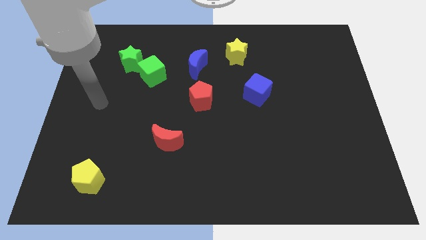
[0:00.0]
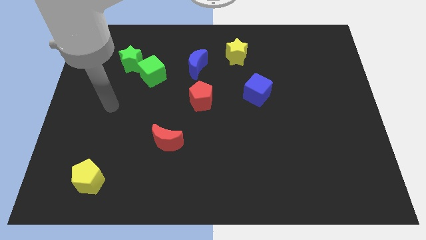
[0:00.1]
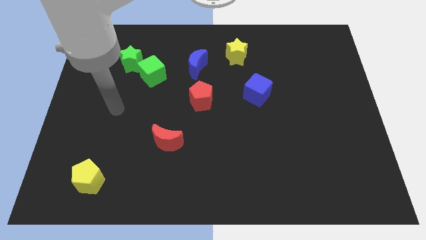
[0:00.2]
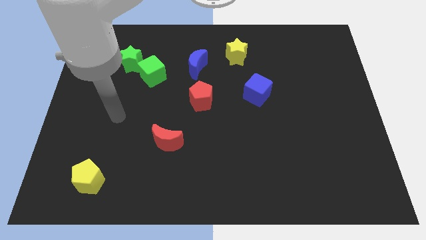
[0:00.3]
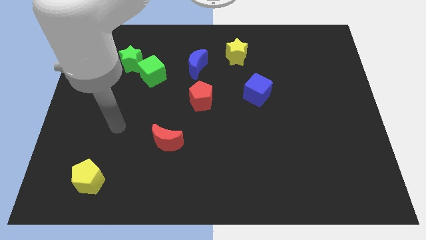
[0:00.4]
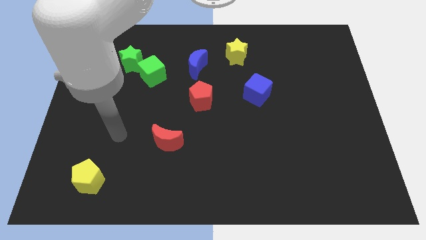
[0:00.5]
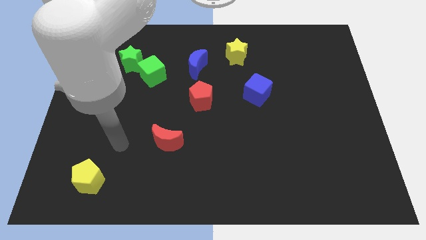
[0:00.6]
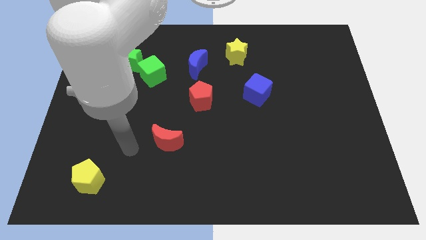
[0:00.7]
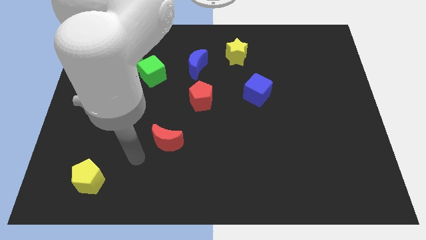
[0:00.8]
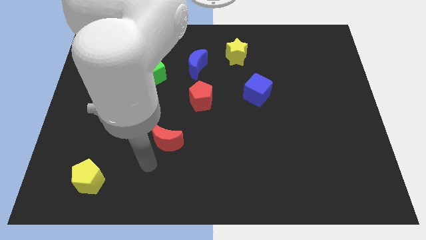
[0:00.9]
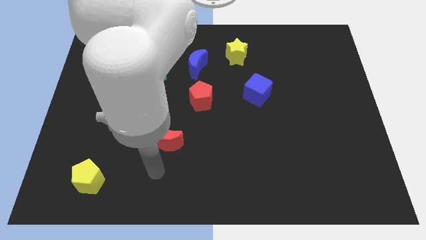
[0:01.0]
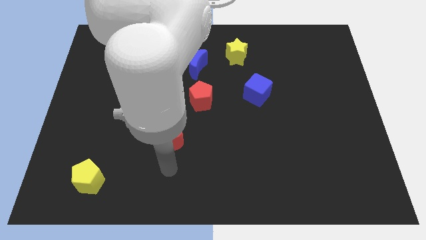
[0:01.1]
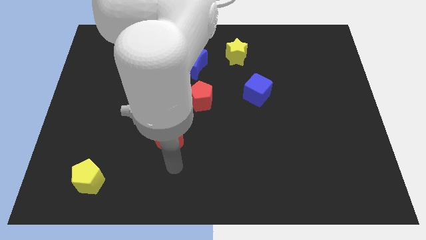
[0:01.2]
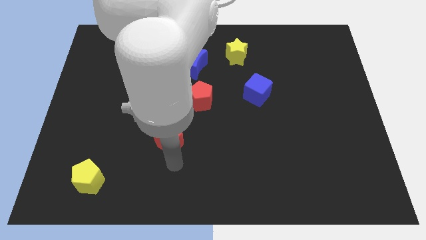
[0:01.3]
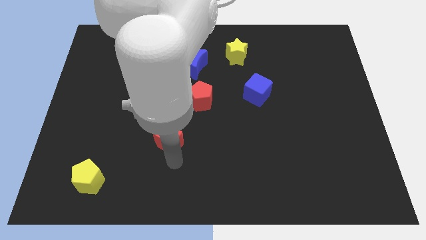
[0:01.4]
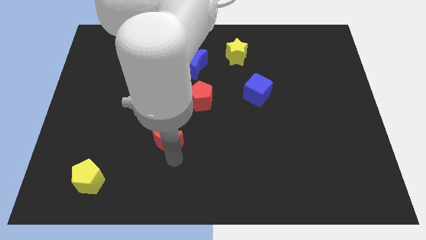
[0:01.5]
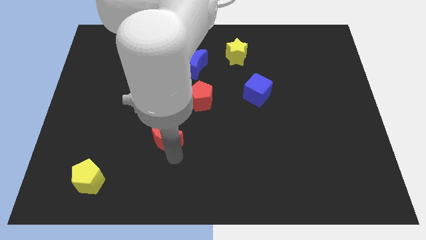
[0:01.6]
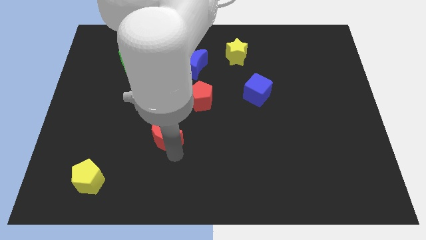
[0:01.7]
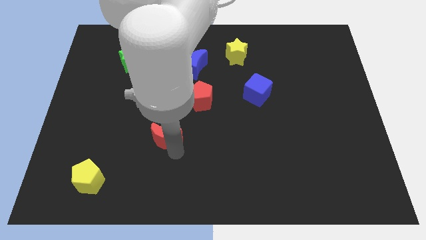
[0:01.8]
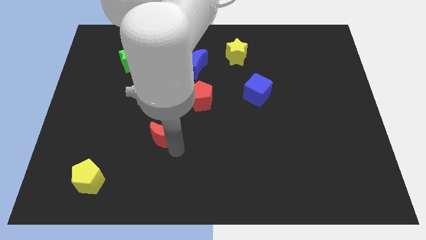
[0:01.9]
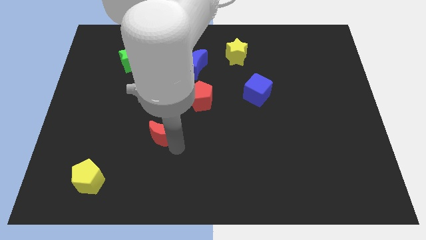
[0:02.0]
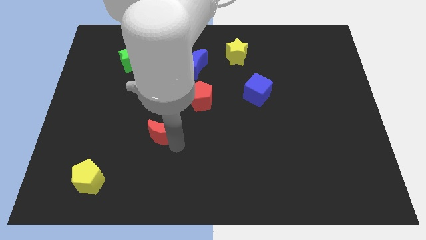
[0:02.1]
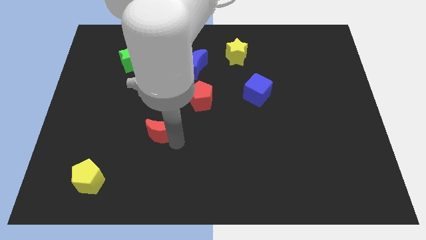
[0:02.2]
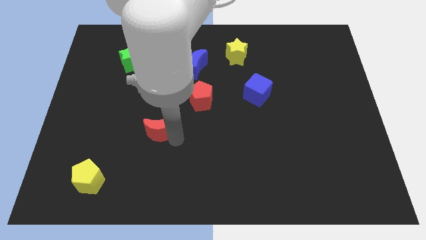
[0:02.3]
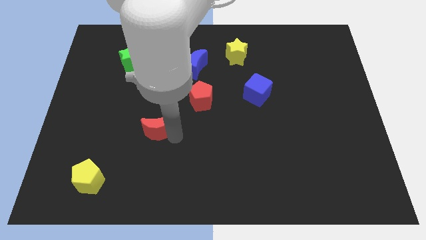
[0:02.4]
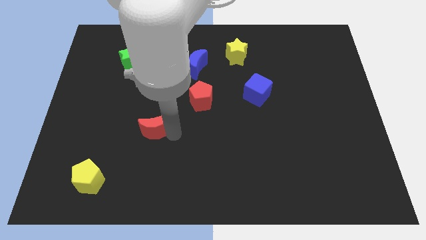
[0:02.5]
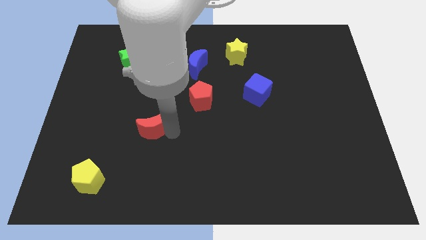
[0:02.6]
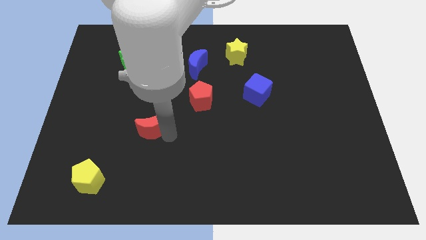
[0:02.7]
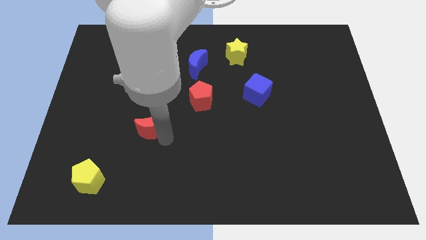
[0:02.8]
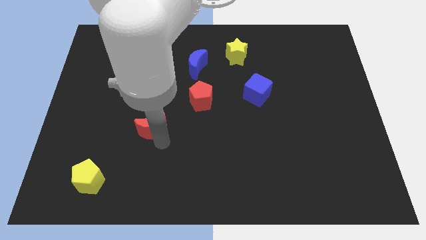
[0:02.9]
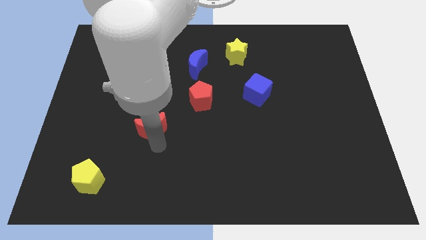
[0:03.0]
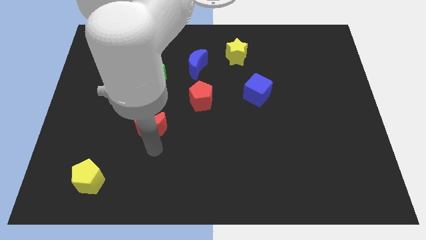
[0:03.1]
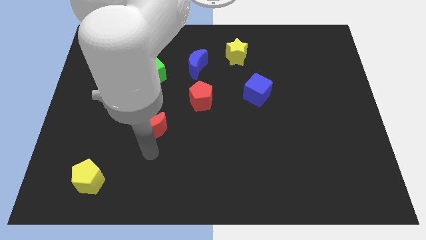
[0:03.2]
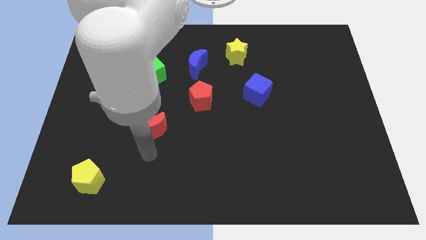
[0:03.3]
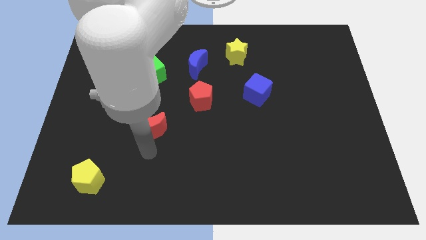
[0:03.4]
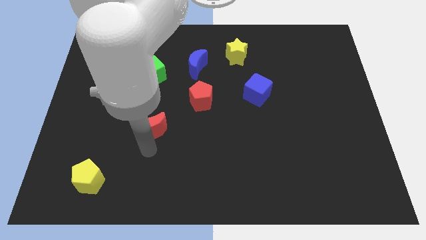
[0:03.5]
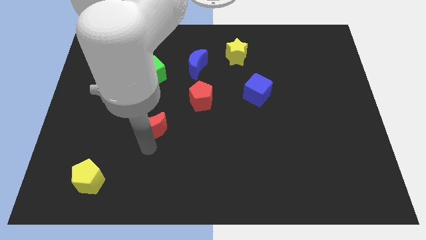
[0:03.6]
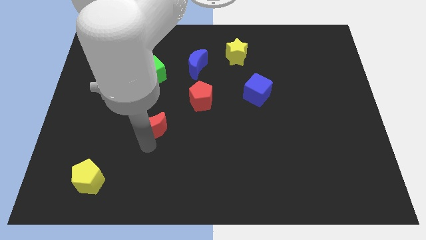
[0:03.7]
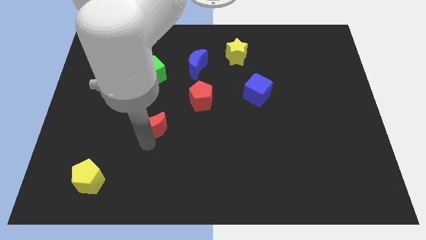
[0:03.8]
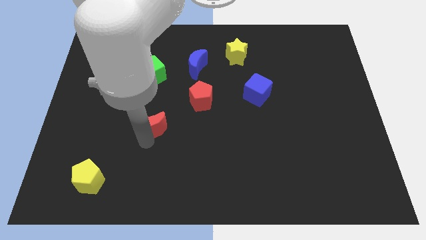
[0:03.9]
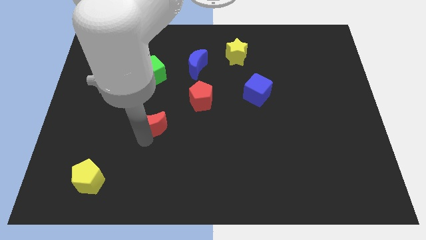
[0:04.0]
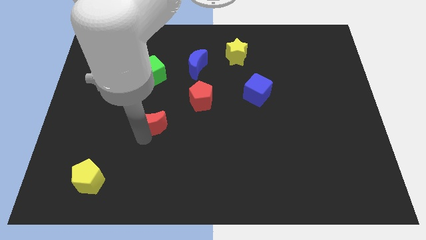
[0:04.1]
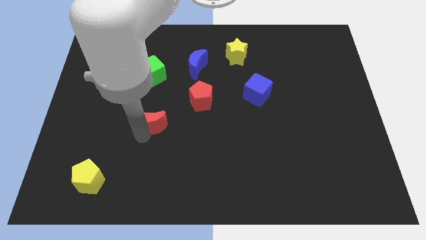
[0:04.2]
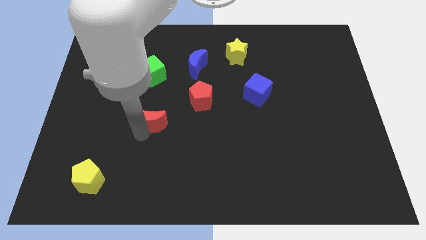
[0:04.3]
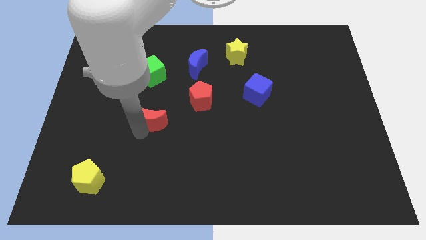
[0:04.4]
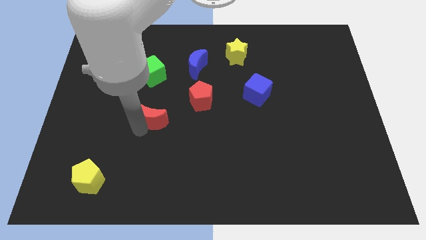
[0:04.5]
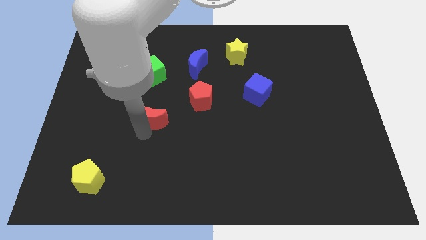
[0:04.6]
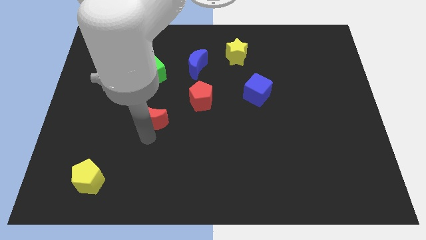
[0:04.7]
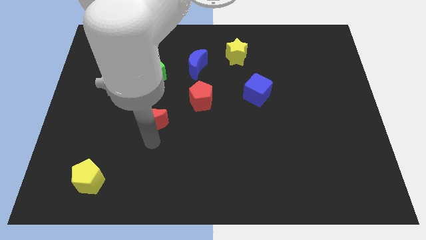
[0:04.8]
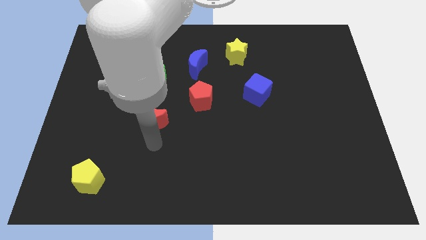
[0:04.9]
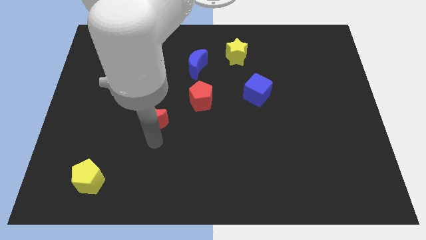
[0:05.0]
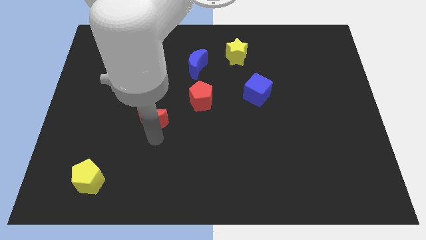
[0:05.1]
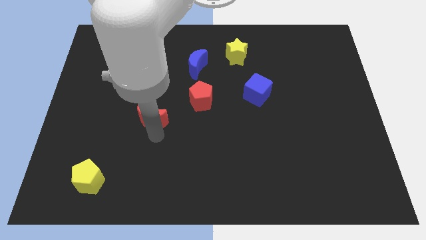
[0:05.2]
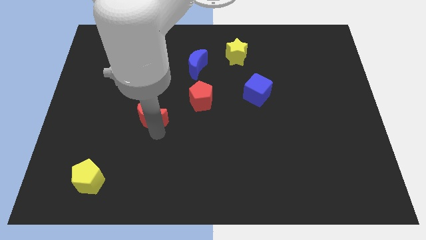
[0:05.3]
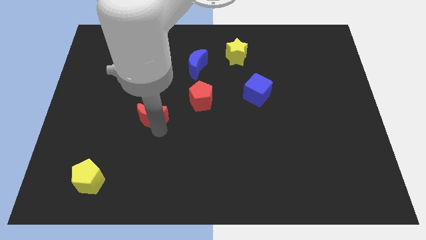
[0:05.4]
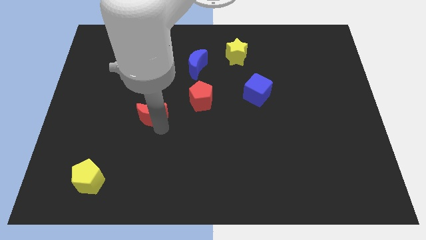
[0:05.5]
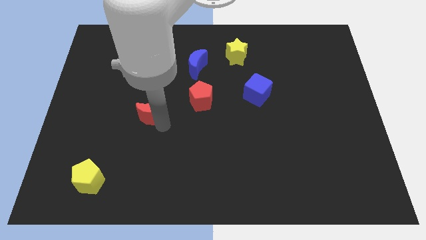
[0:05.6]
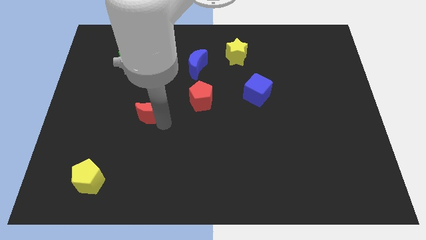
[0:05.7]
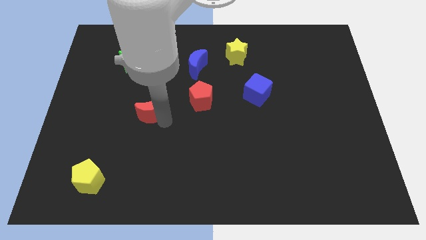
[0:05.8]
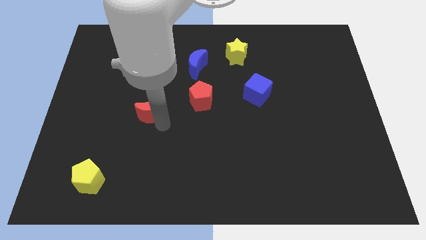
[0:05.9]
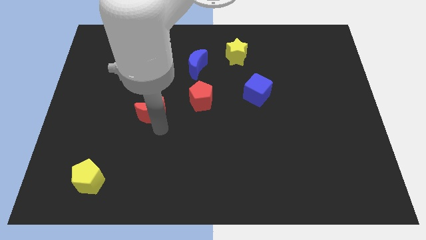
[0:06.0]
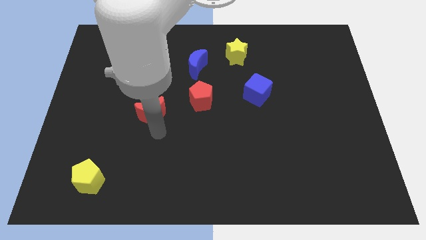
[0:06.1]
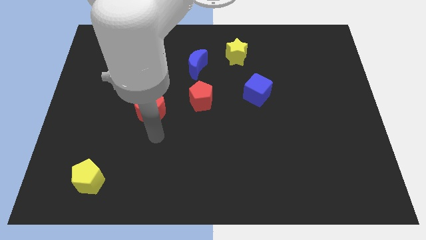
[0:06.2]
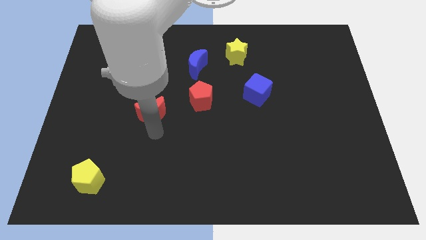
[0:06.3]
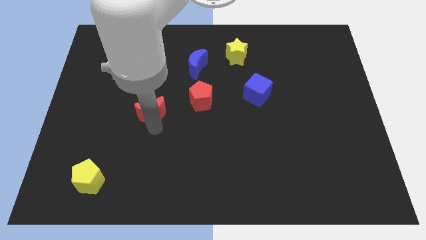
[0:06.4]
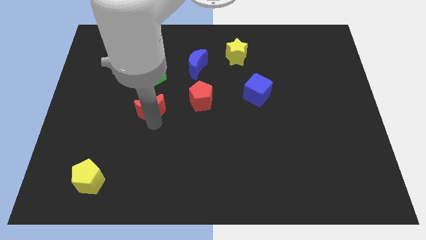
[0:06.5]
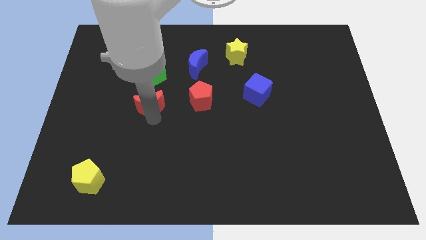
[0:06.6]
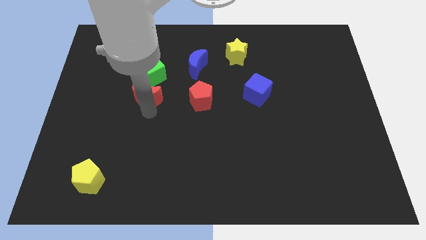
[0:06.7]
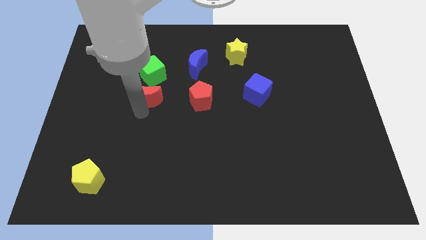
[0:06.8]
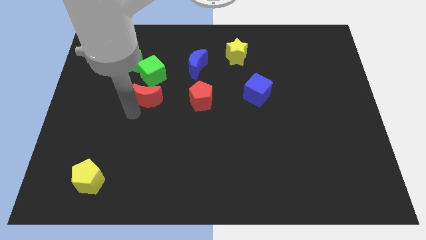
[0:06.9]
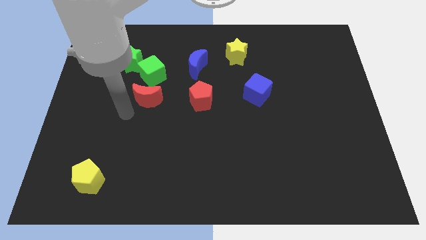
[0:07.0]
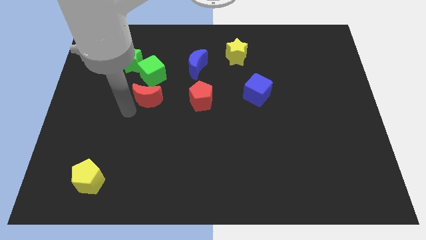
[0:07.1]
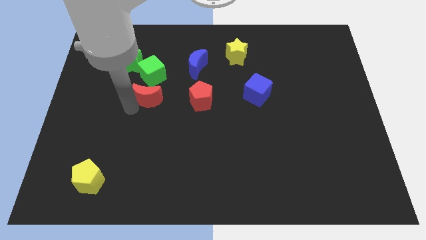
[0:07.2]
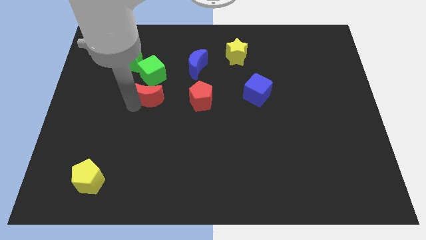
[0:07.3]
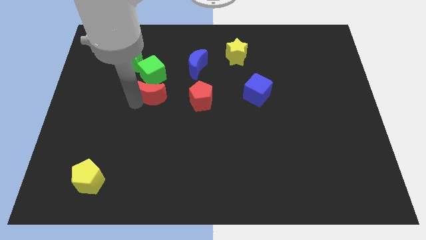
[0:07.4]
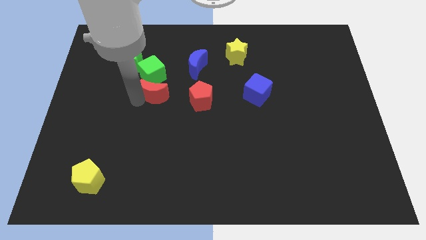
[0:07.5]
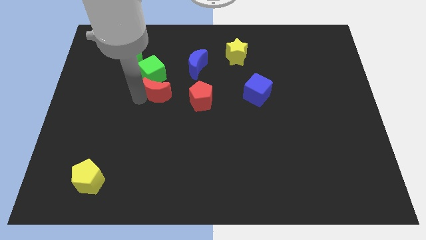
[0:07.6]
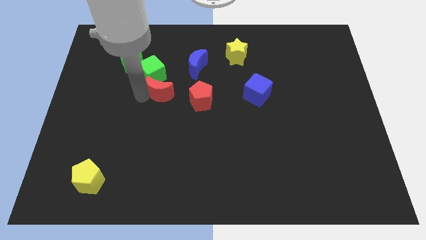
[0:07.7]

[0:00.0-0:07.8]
put the red moon to the bottom left side of the blue moon
